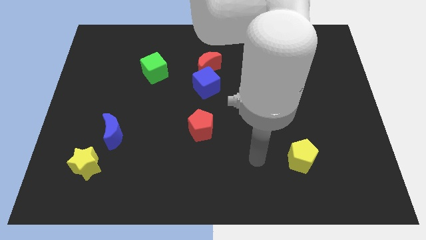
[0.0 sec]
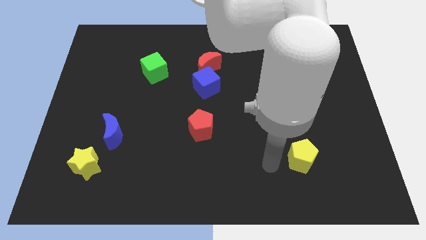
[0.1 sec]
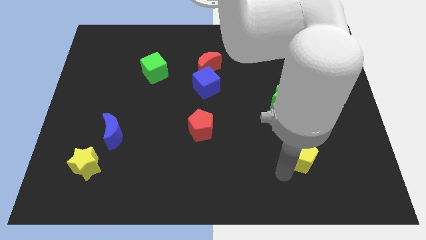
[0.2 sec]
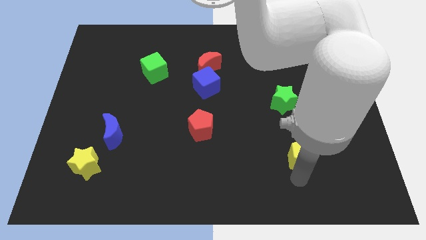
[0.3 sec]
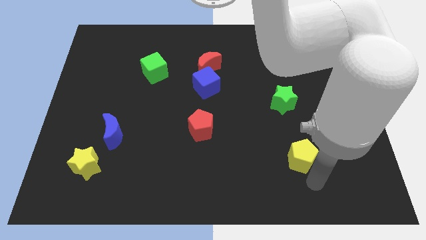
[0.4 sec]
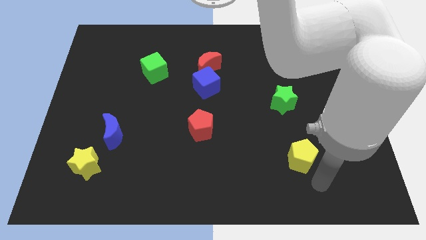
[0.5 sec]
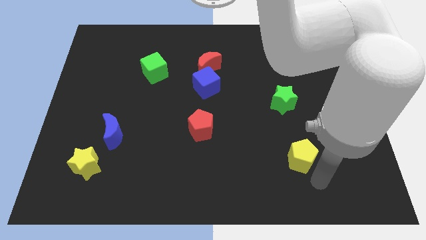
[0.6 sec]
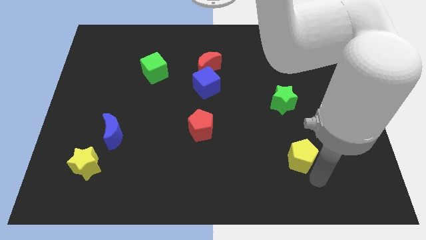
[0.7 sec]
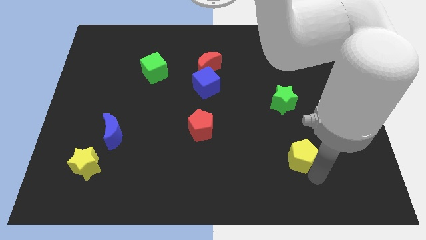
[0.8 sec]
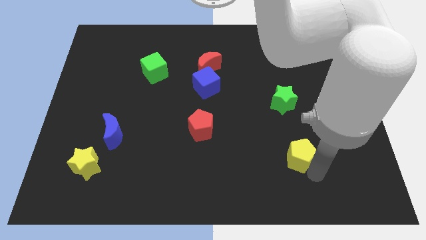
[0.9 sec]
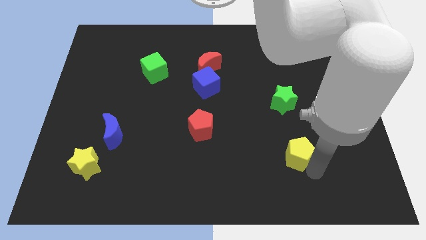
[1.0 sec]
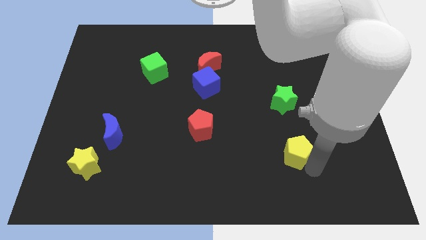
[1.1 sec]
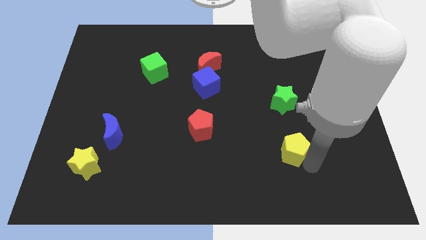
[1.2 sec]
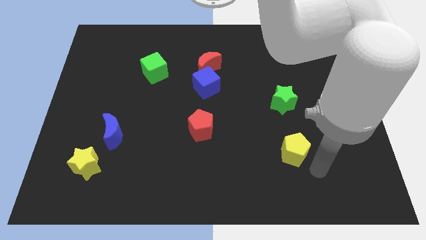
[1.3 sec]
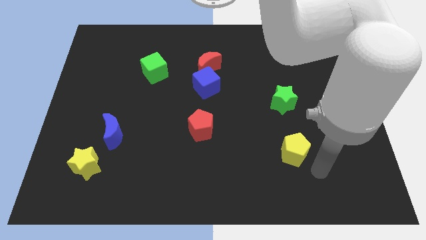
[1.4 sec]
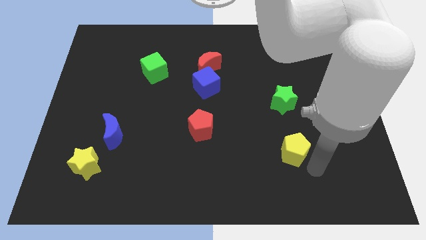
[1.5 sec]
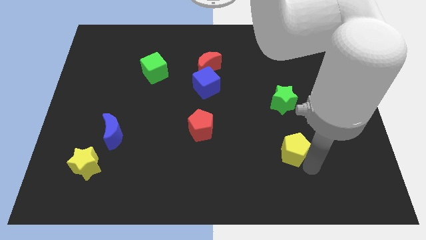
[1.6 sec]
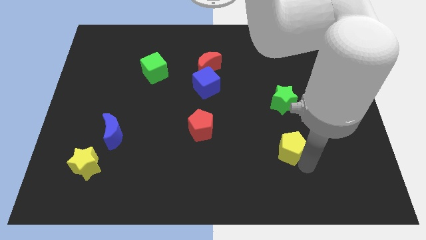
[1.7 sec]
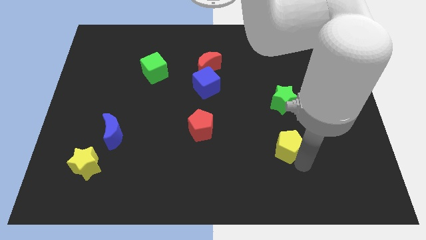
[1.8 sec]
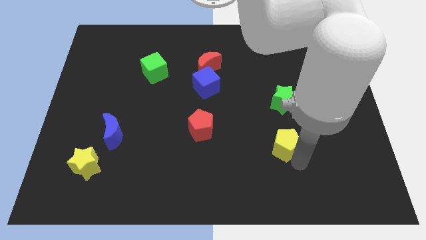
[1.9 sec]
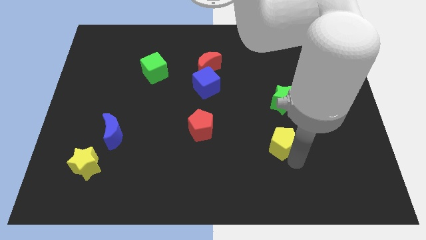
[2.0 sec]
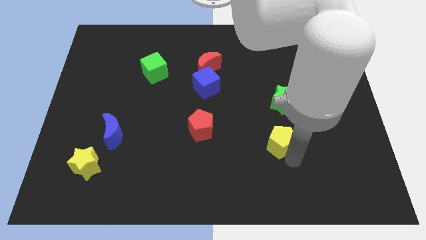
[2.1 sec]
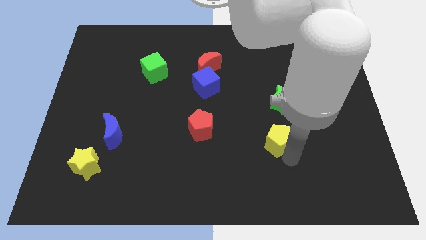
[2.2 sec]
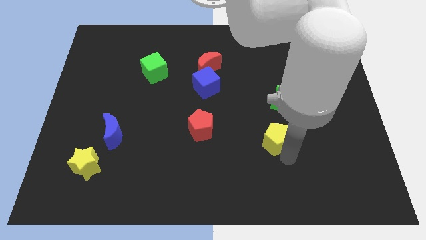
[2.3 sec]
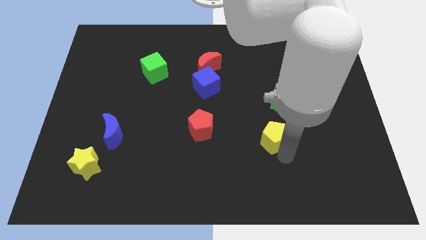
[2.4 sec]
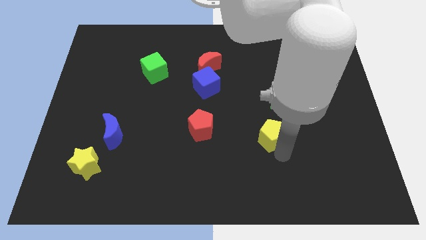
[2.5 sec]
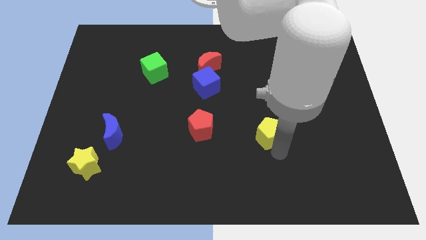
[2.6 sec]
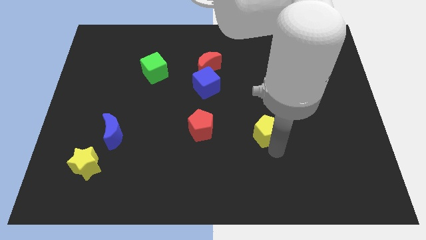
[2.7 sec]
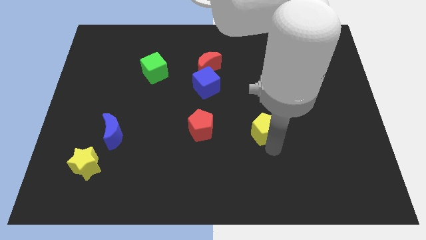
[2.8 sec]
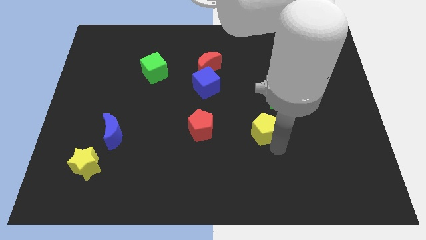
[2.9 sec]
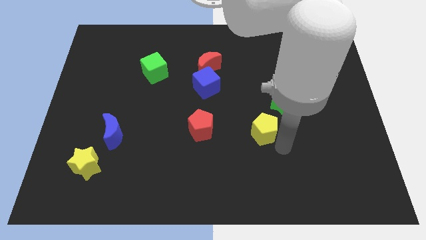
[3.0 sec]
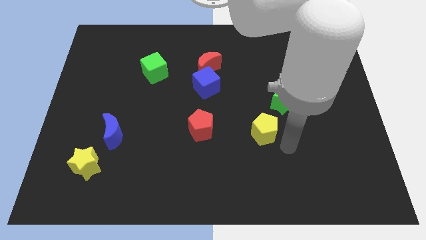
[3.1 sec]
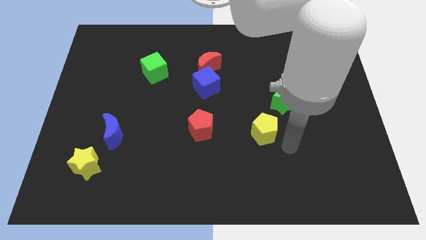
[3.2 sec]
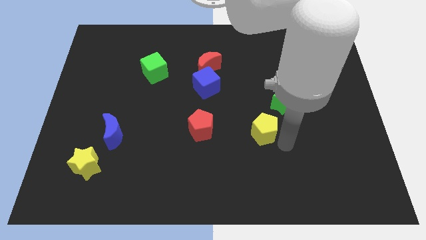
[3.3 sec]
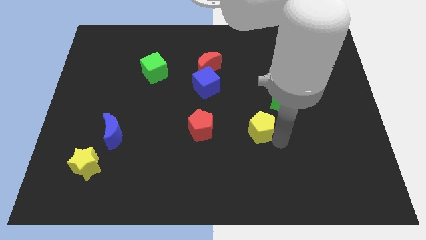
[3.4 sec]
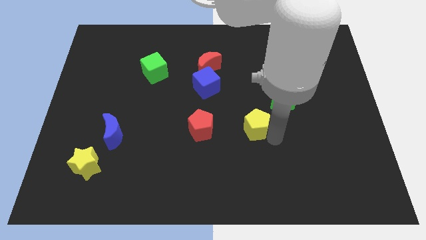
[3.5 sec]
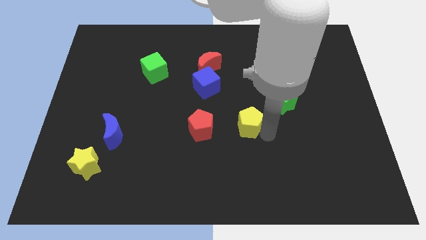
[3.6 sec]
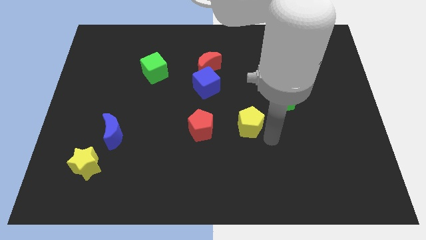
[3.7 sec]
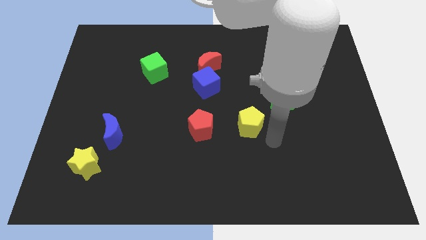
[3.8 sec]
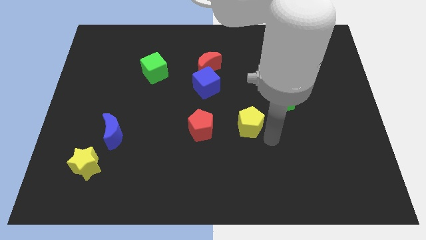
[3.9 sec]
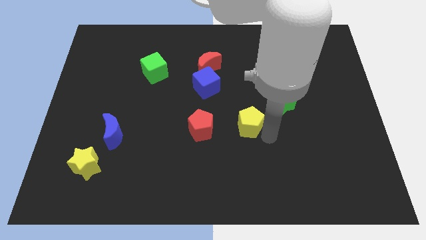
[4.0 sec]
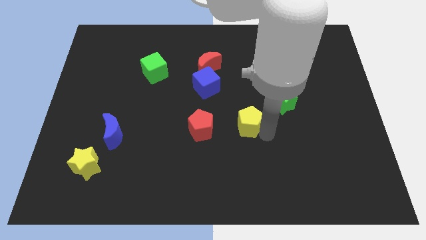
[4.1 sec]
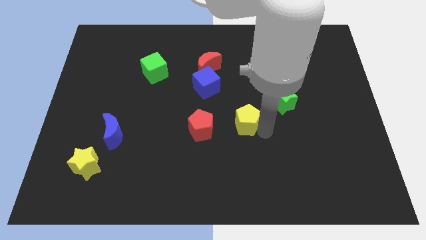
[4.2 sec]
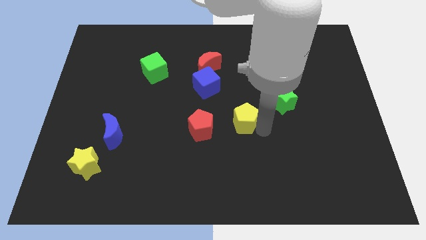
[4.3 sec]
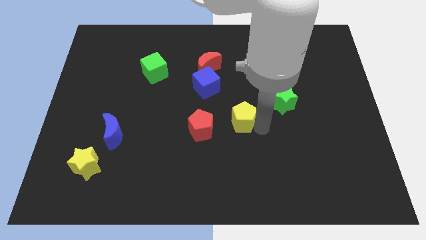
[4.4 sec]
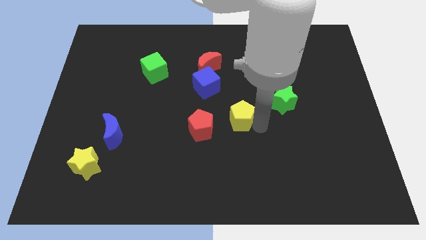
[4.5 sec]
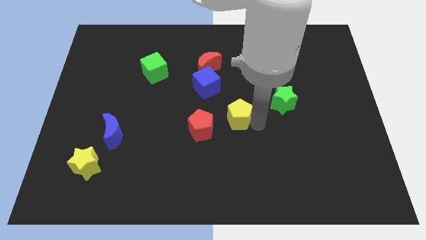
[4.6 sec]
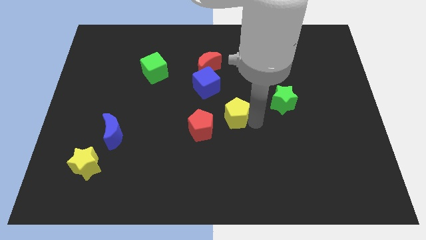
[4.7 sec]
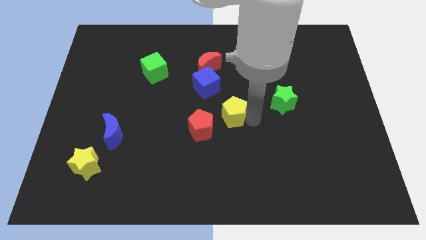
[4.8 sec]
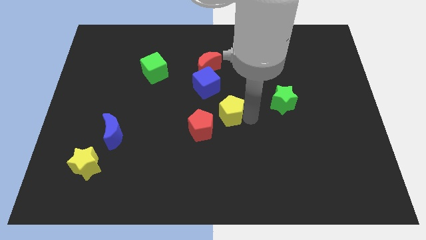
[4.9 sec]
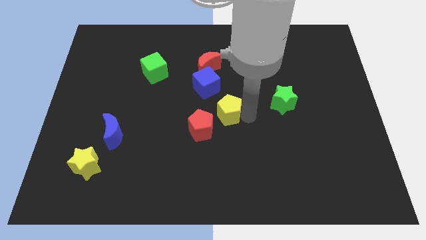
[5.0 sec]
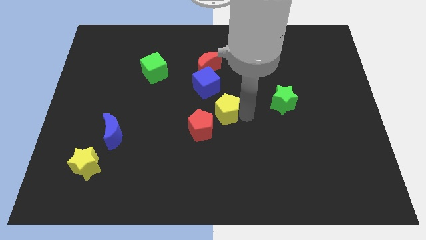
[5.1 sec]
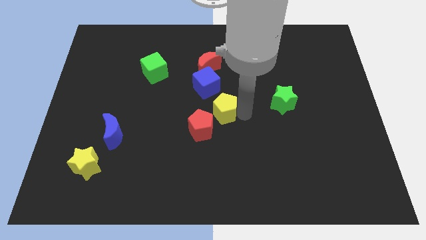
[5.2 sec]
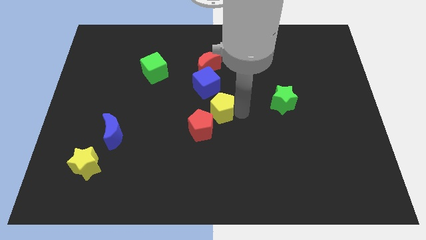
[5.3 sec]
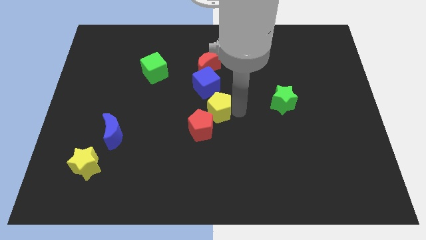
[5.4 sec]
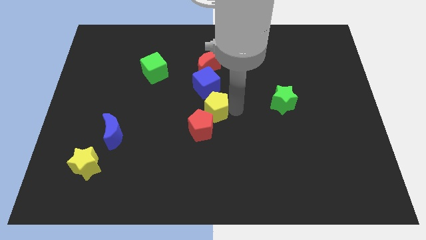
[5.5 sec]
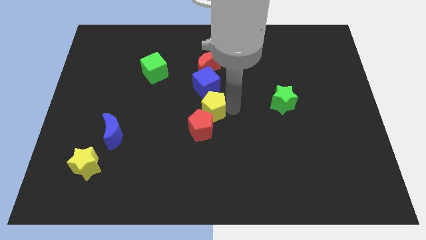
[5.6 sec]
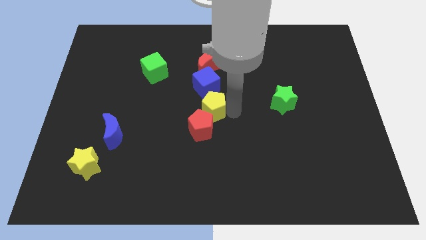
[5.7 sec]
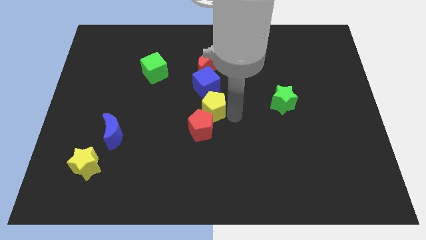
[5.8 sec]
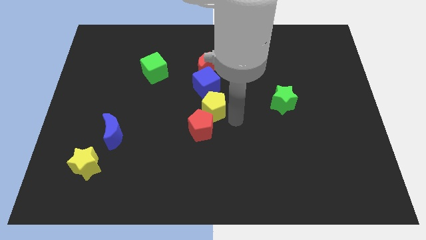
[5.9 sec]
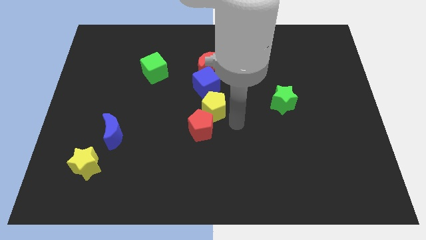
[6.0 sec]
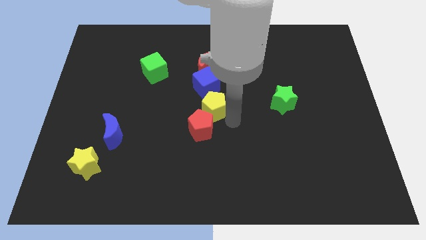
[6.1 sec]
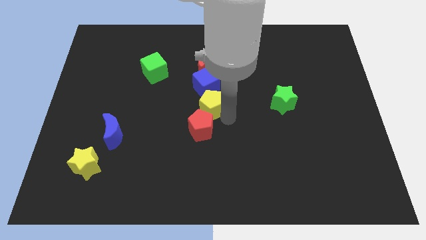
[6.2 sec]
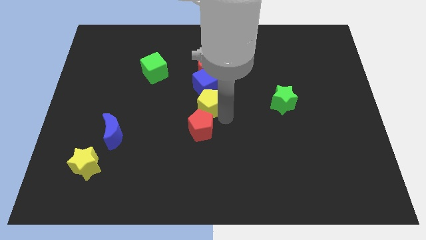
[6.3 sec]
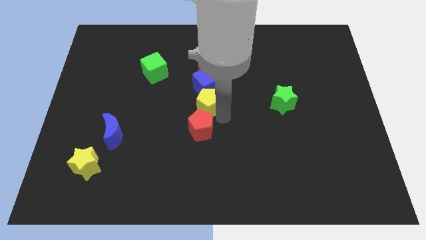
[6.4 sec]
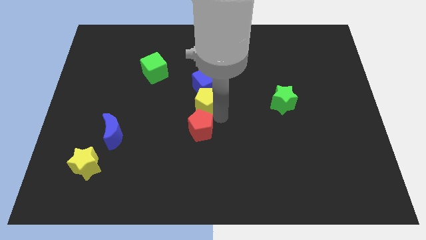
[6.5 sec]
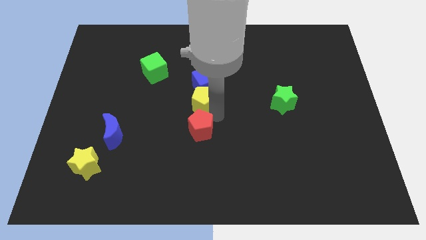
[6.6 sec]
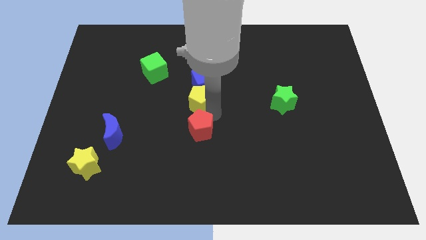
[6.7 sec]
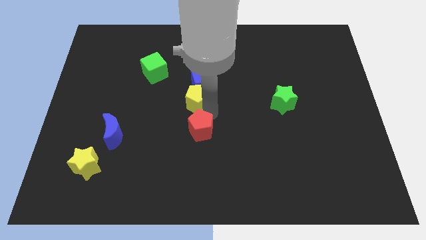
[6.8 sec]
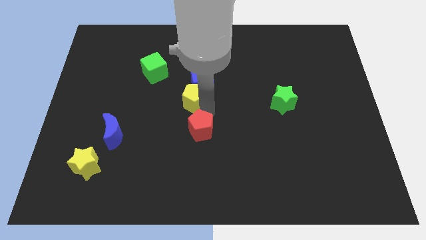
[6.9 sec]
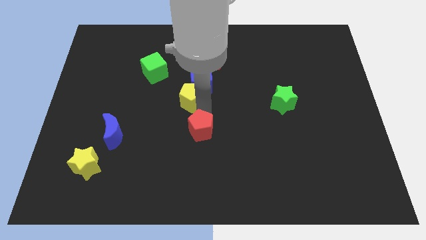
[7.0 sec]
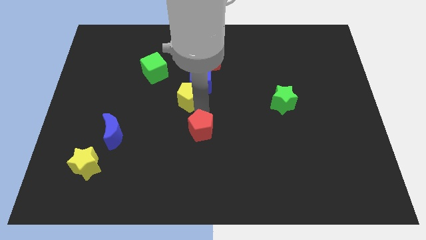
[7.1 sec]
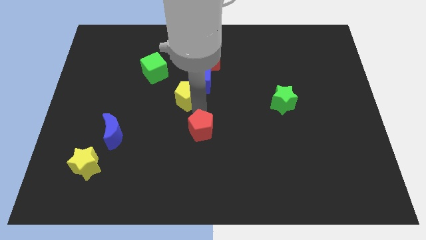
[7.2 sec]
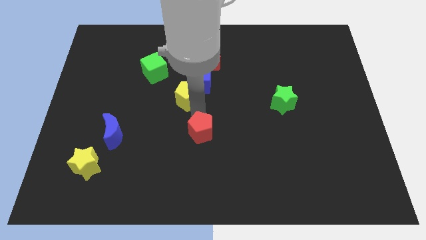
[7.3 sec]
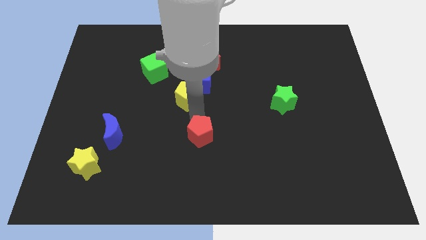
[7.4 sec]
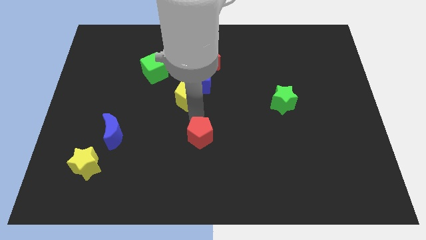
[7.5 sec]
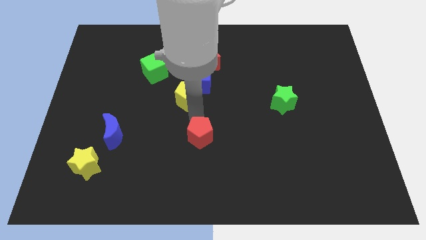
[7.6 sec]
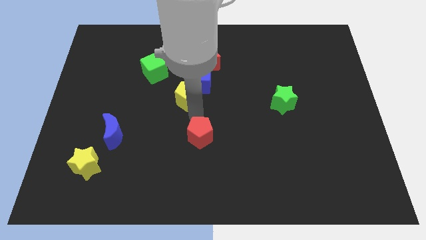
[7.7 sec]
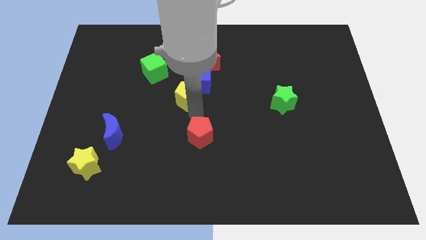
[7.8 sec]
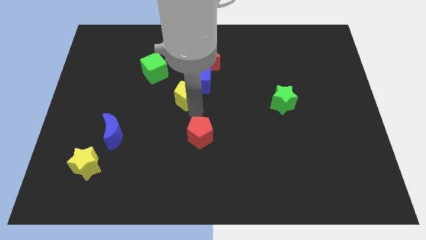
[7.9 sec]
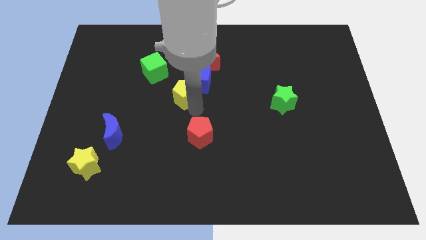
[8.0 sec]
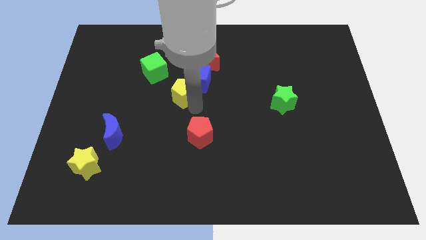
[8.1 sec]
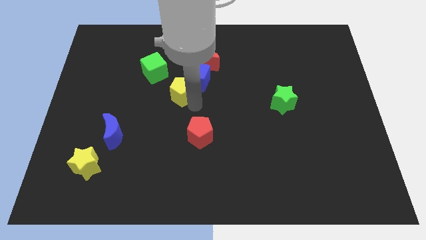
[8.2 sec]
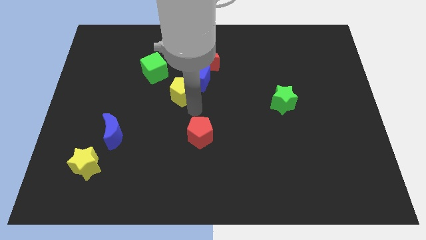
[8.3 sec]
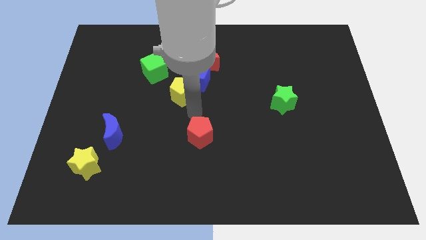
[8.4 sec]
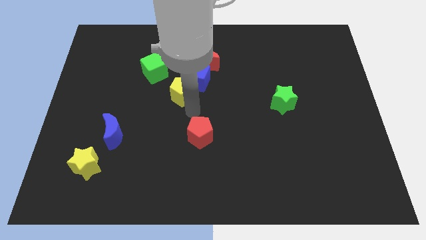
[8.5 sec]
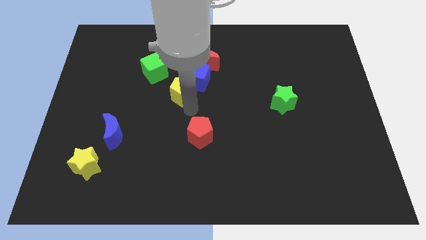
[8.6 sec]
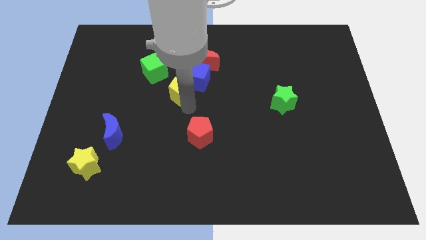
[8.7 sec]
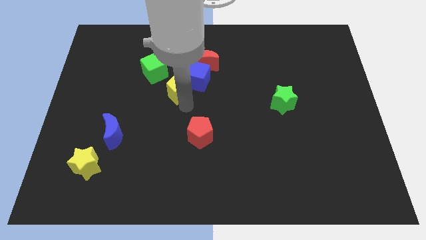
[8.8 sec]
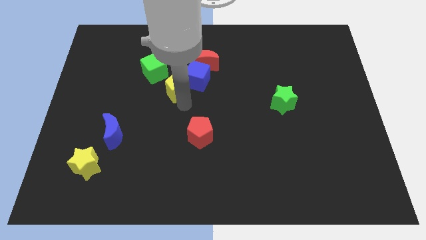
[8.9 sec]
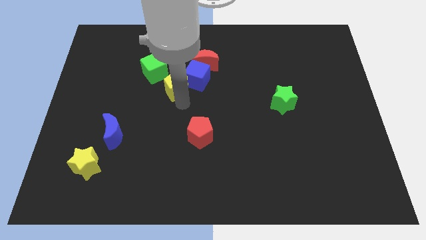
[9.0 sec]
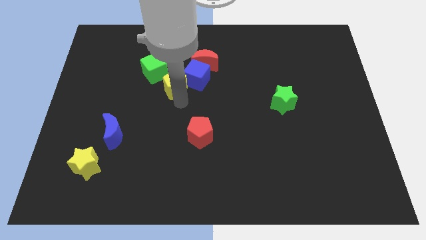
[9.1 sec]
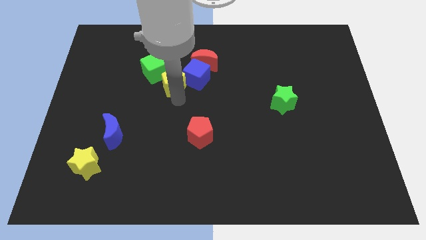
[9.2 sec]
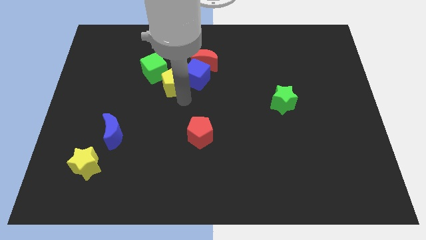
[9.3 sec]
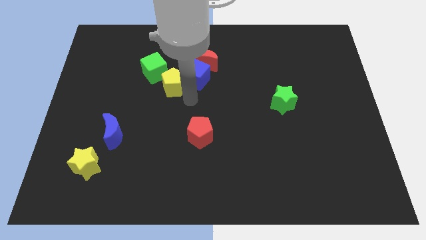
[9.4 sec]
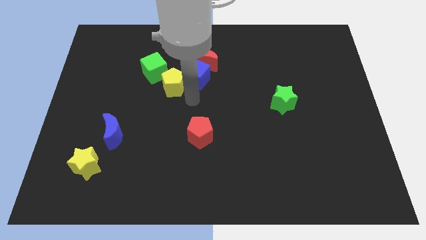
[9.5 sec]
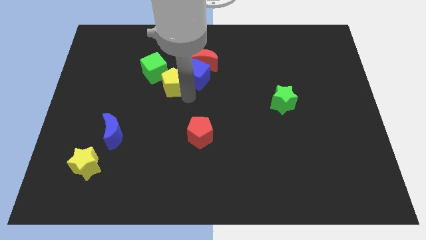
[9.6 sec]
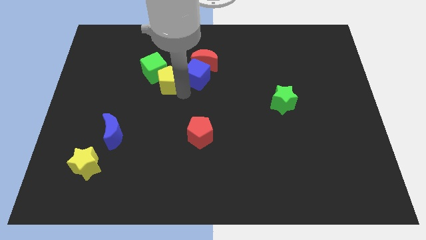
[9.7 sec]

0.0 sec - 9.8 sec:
put the yellow pentagon close to the green cube
